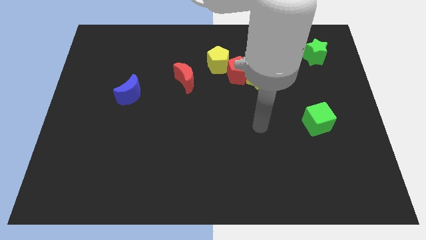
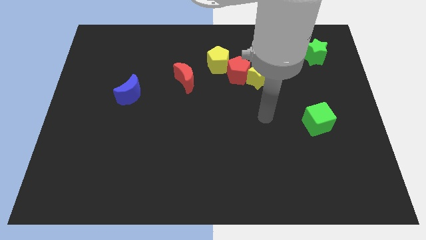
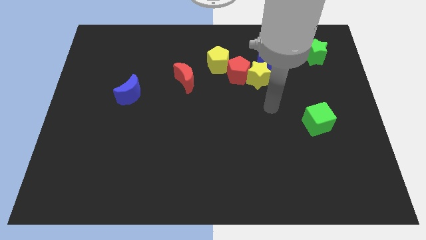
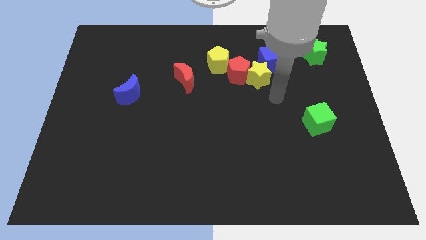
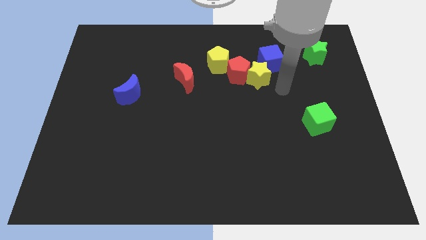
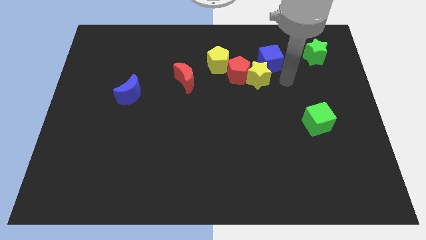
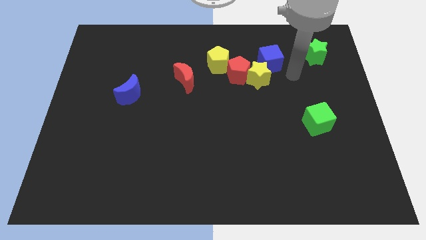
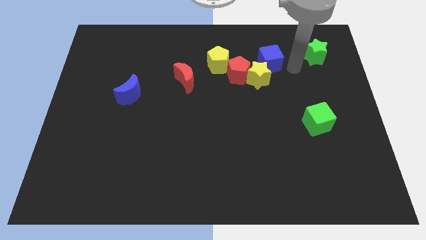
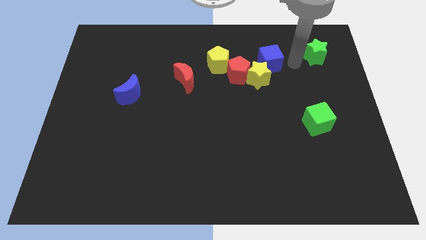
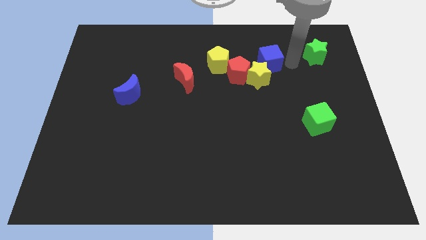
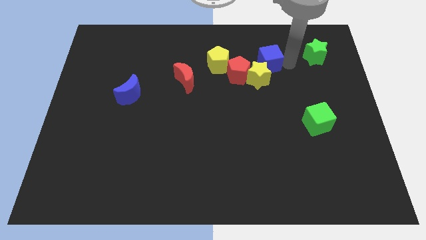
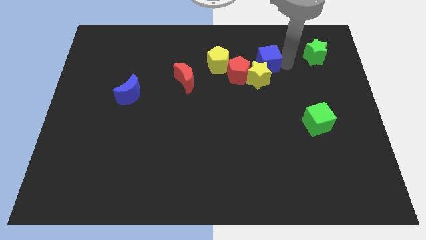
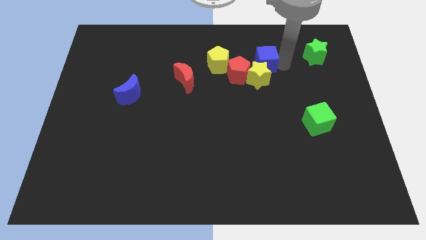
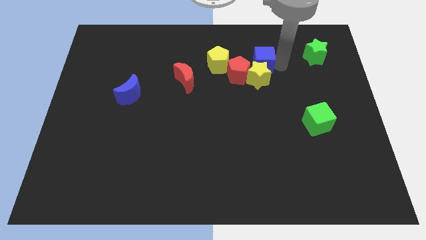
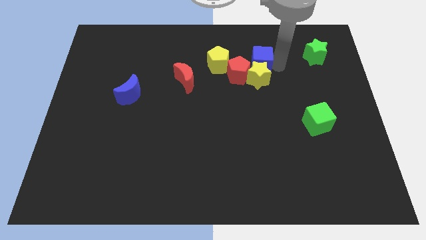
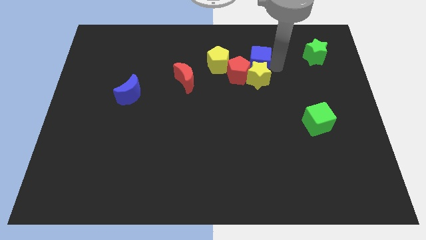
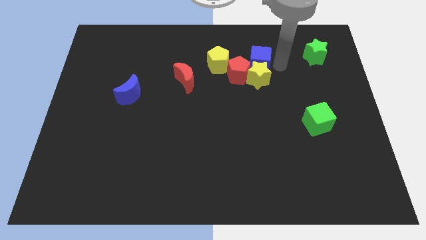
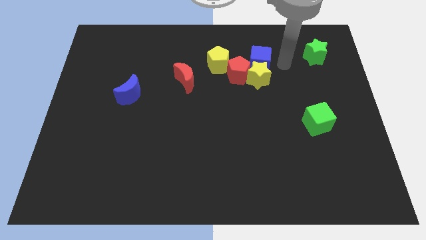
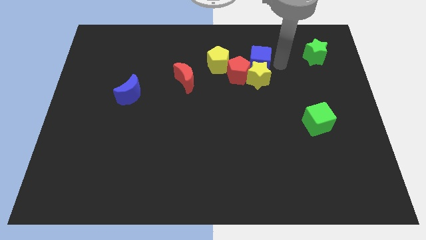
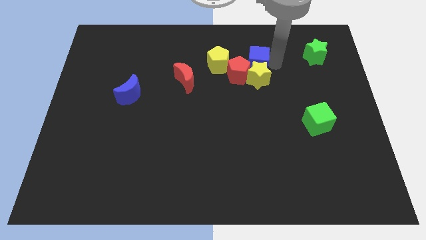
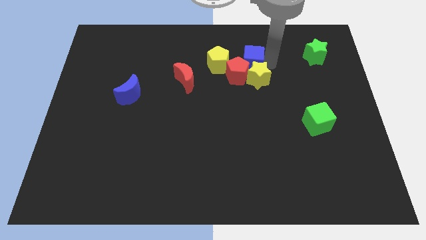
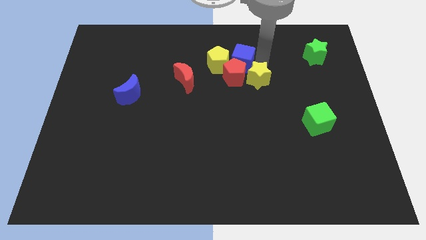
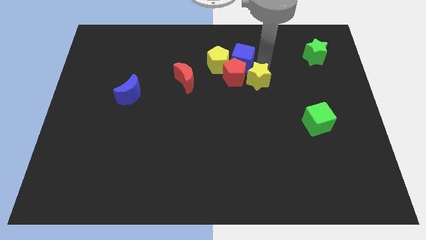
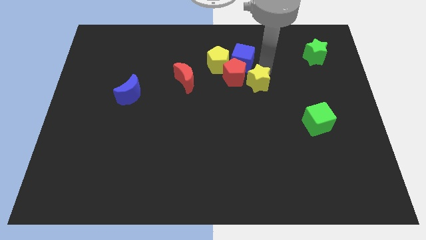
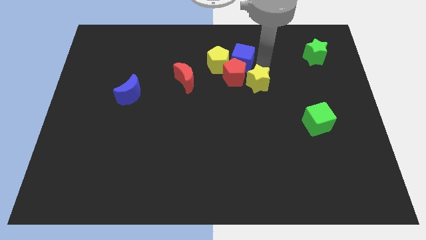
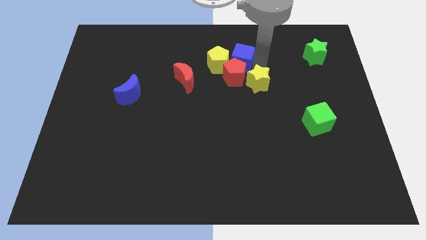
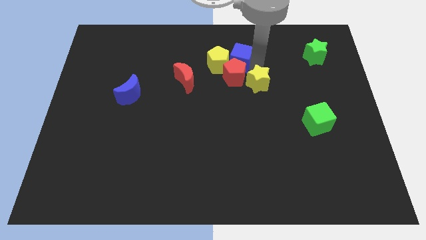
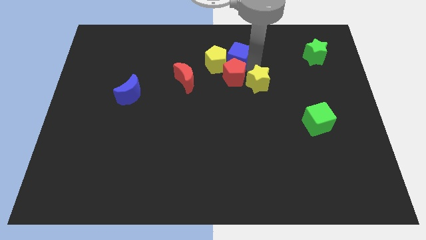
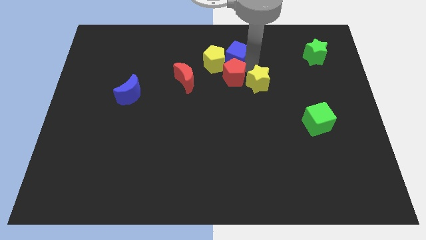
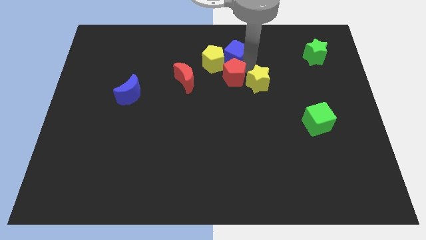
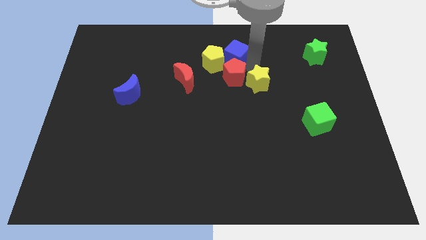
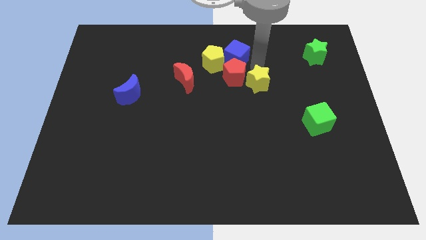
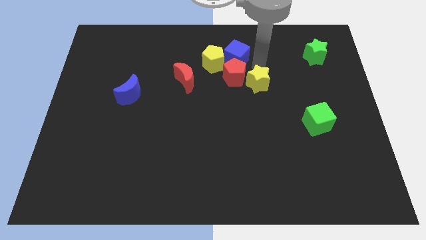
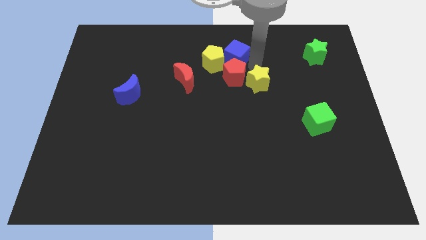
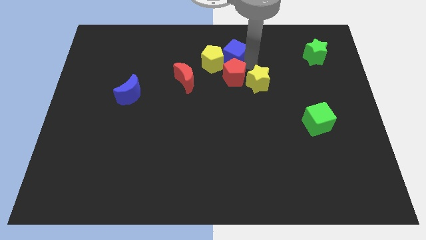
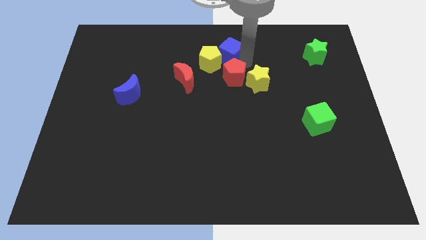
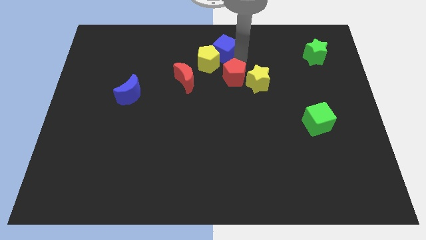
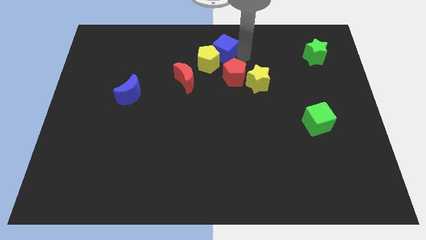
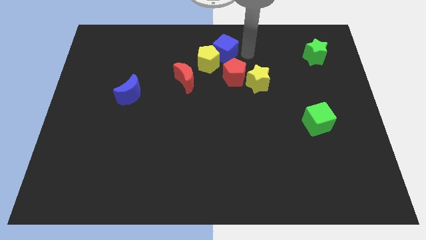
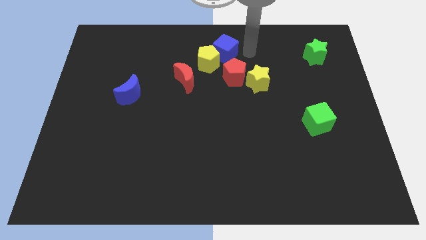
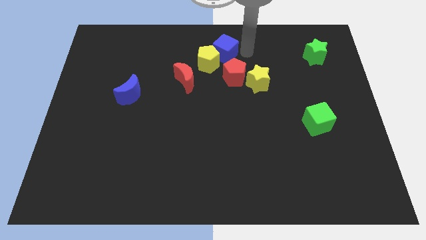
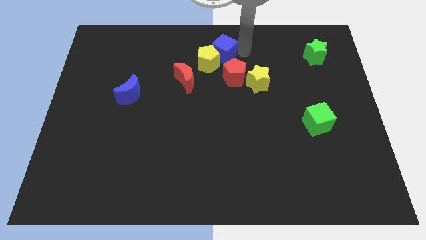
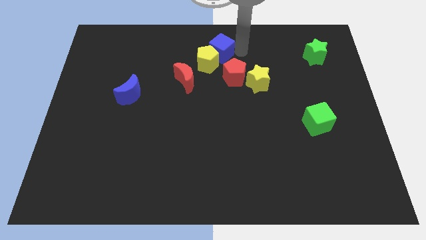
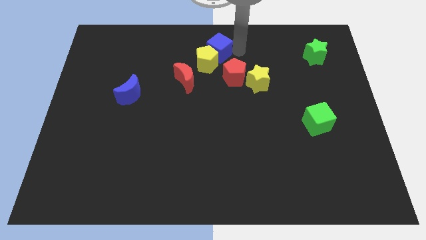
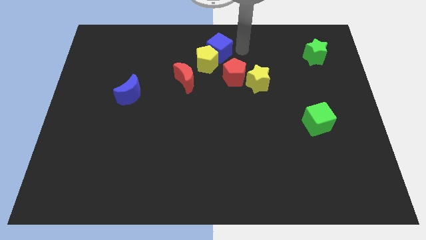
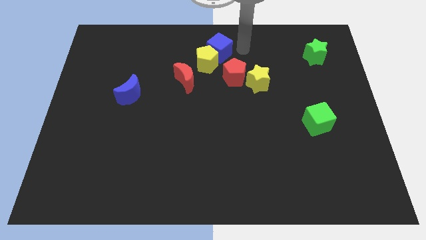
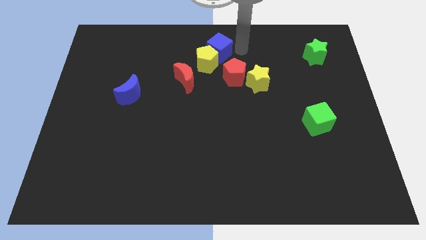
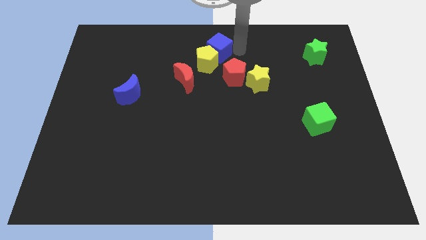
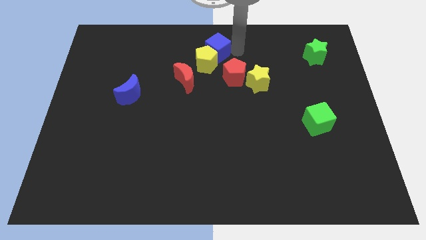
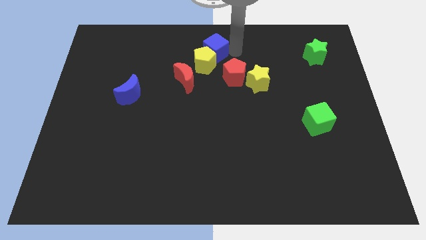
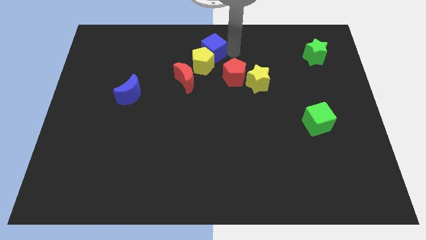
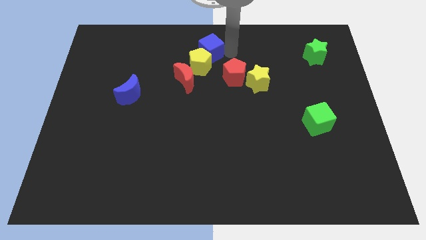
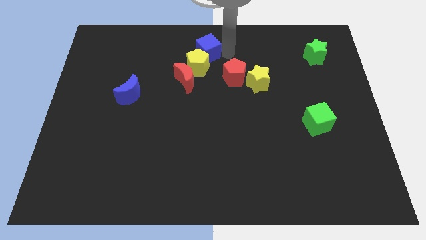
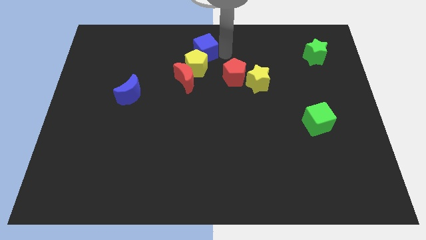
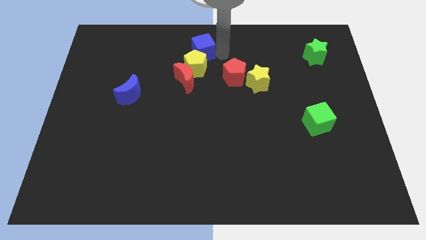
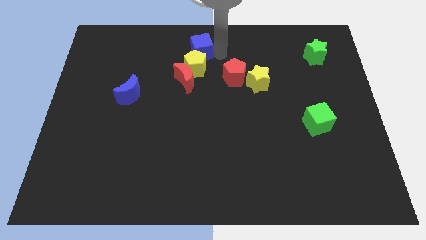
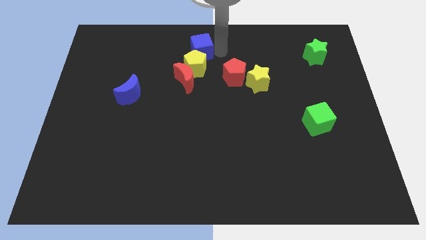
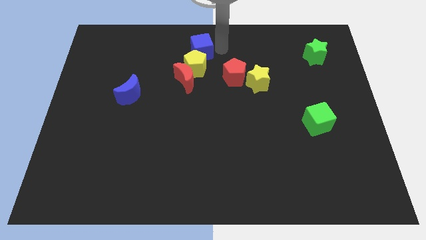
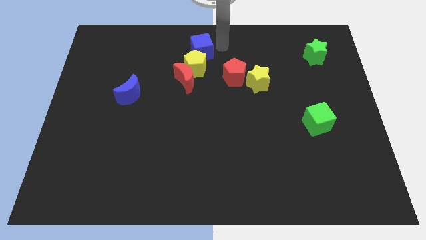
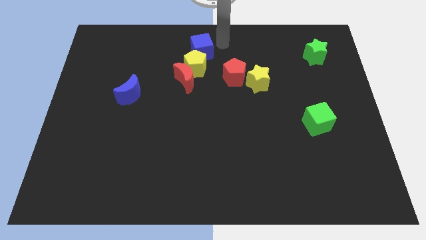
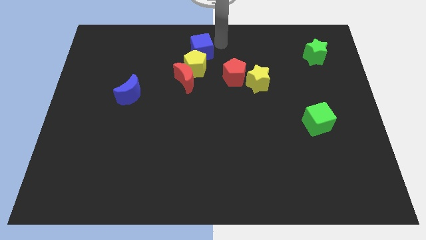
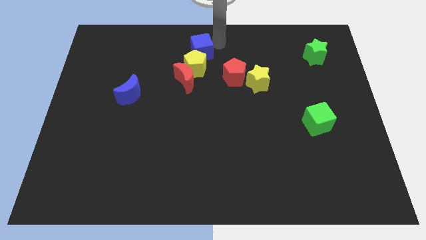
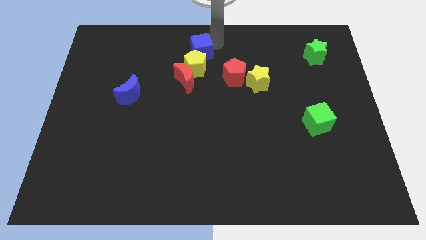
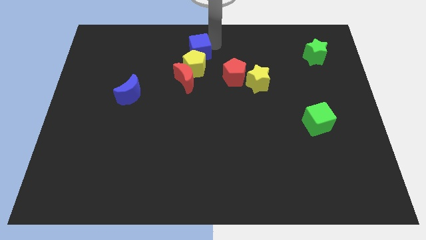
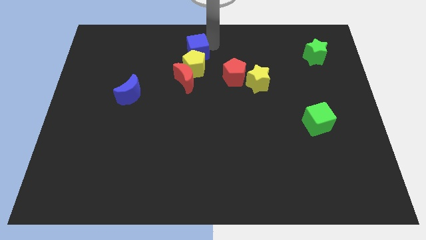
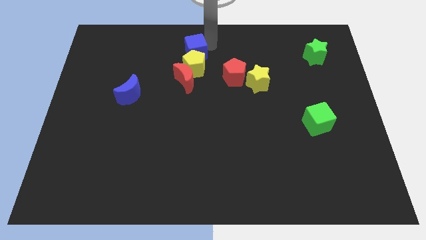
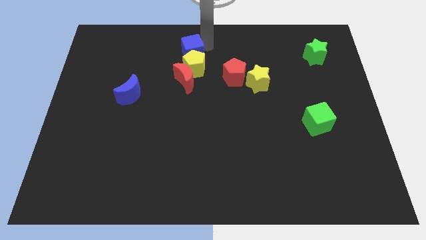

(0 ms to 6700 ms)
push the blue cube to the left

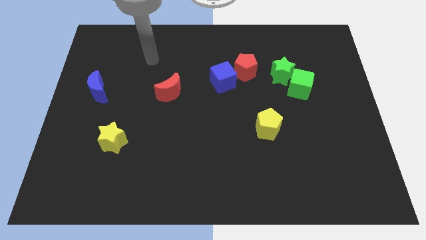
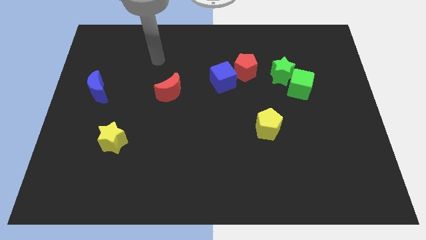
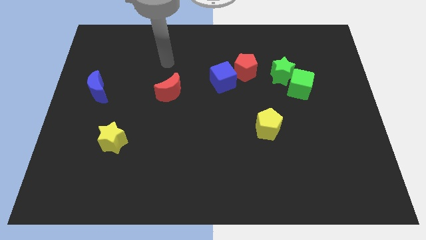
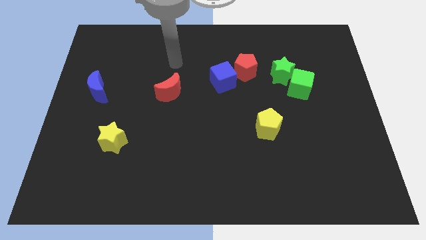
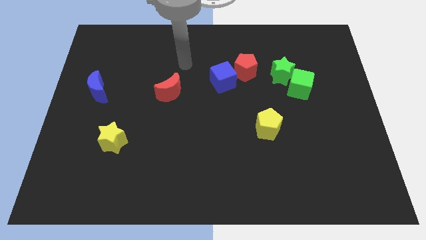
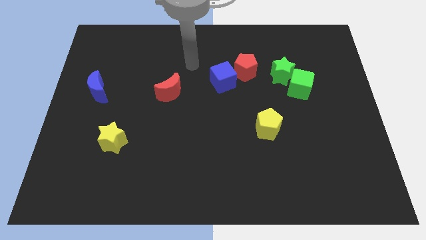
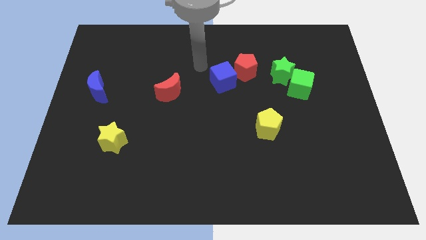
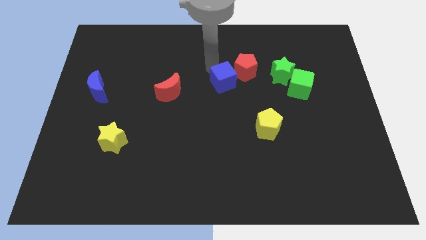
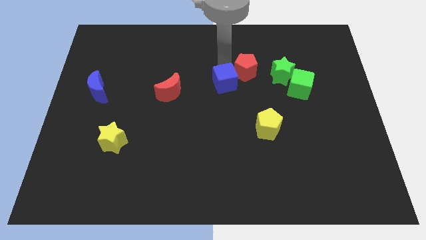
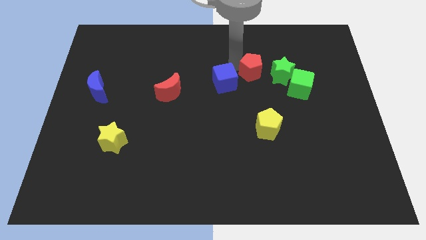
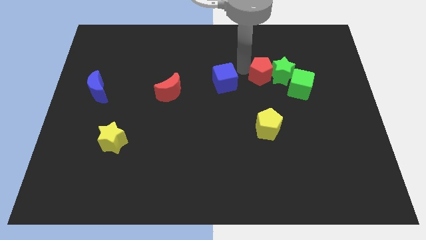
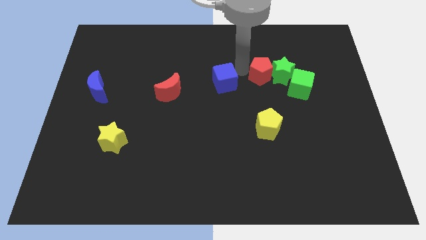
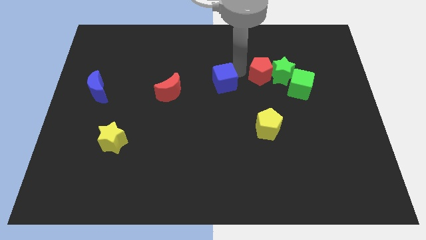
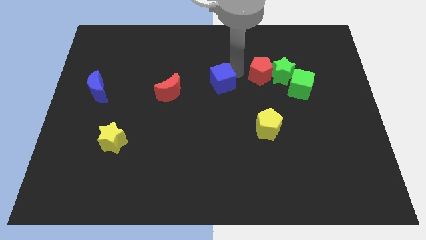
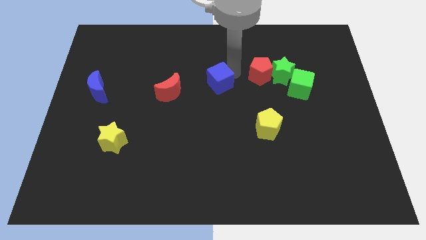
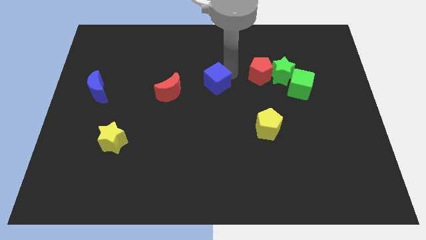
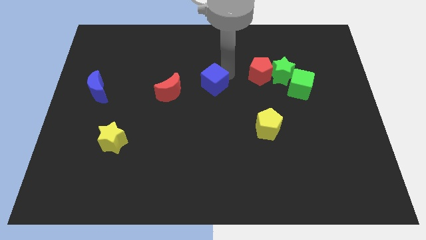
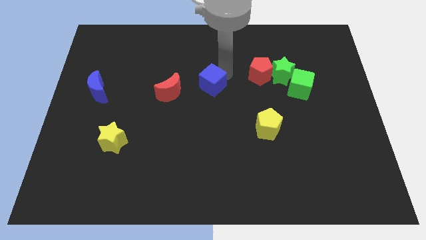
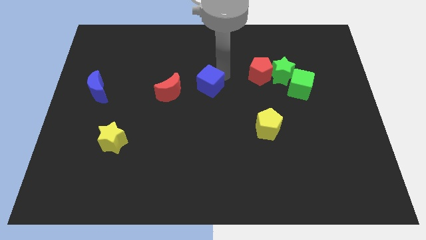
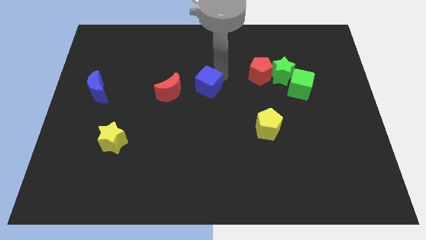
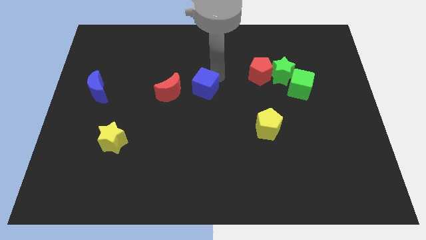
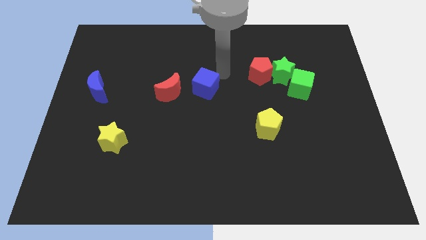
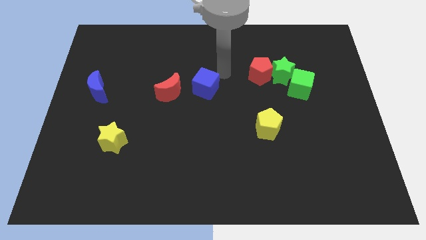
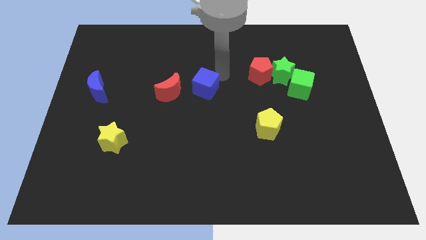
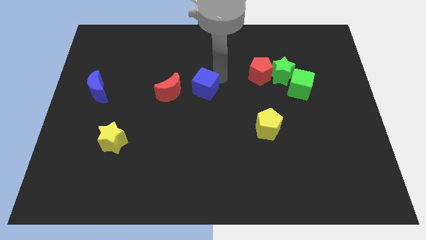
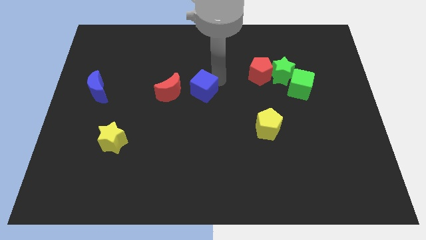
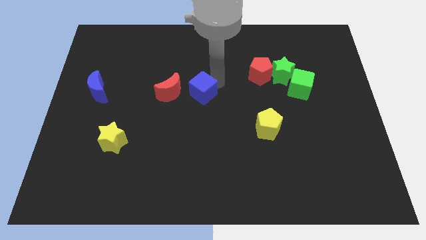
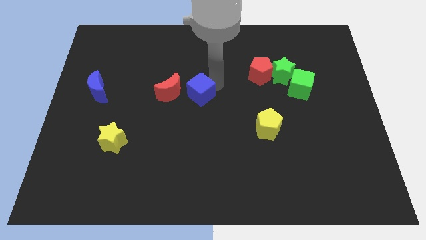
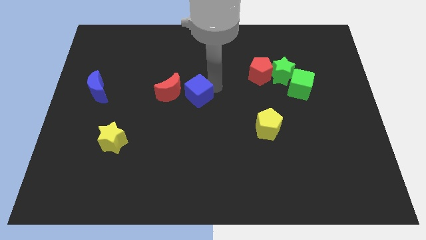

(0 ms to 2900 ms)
move the blue cube down and left a bit
